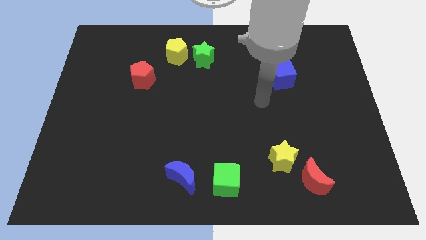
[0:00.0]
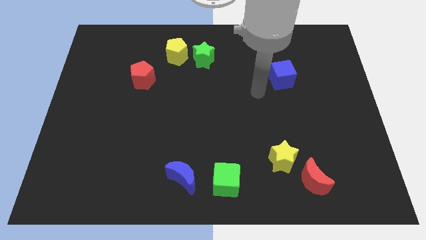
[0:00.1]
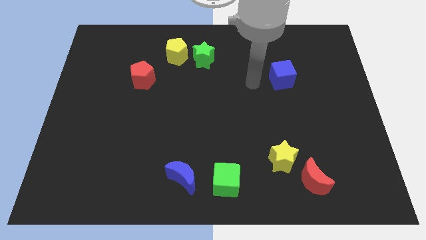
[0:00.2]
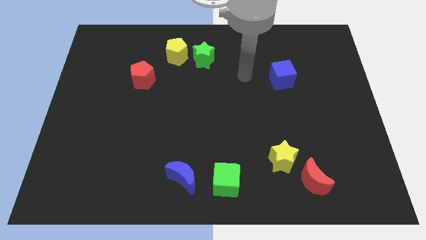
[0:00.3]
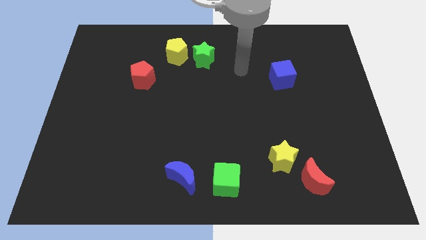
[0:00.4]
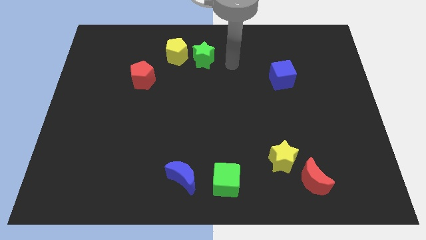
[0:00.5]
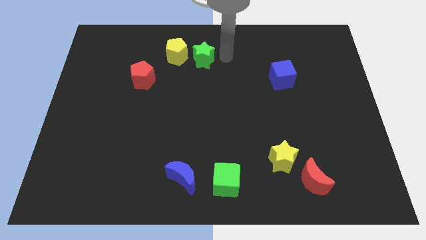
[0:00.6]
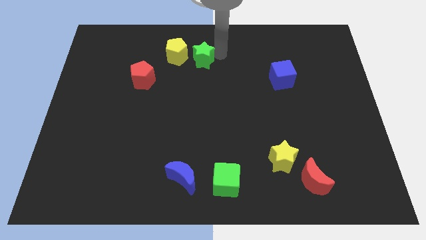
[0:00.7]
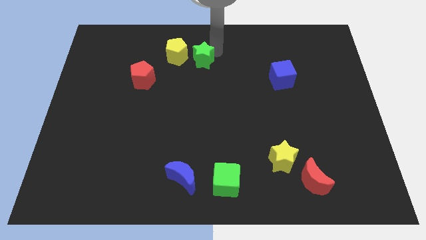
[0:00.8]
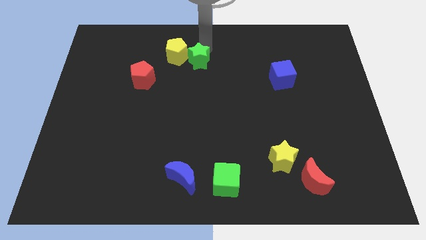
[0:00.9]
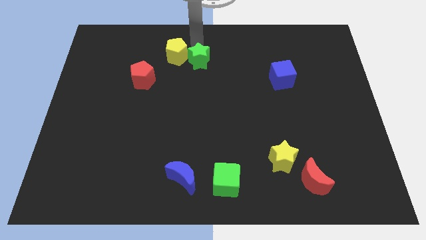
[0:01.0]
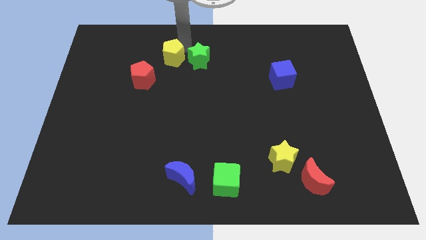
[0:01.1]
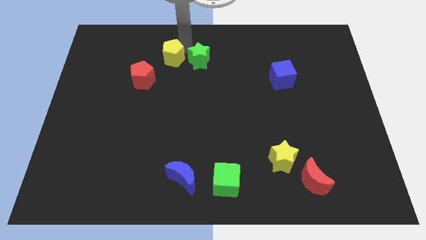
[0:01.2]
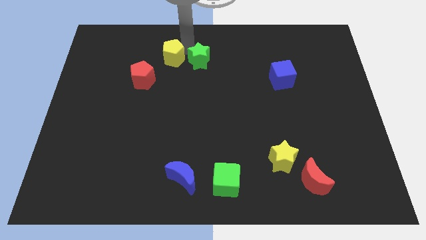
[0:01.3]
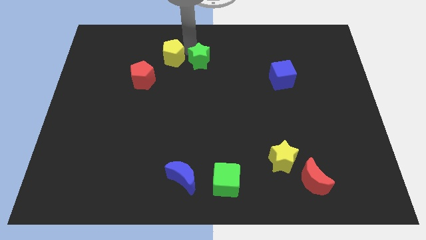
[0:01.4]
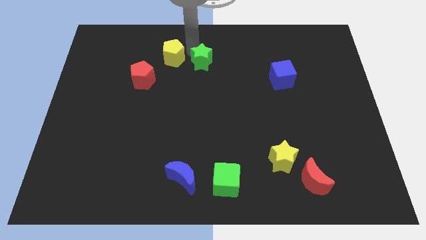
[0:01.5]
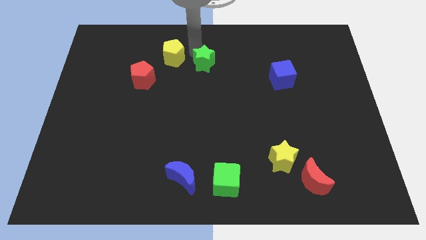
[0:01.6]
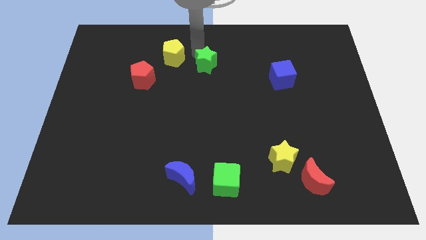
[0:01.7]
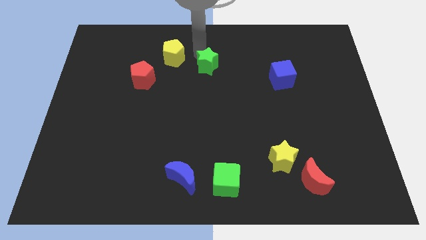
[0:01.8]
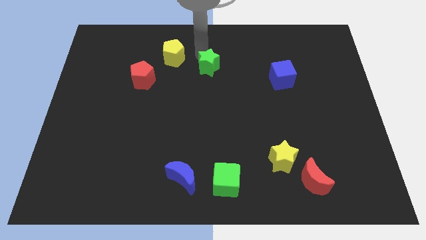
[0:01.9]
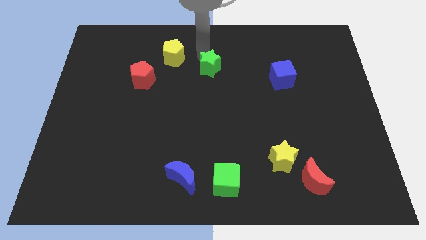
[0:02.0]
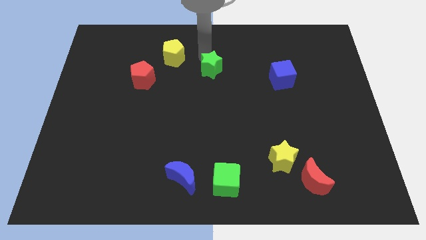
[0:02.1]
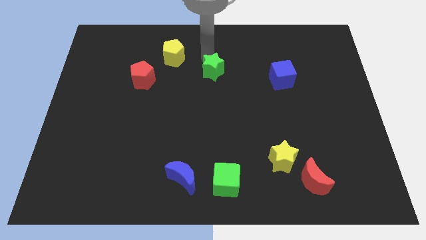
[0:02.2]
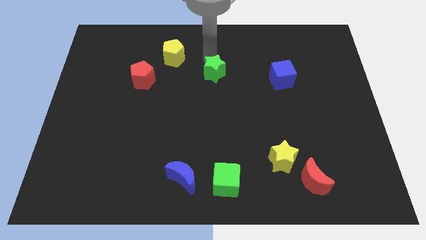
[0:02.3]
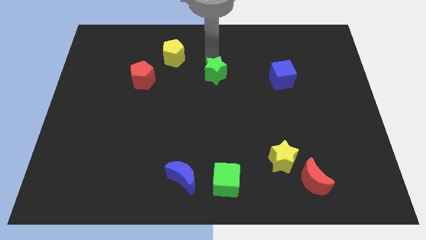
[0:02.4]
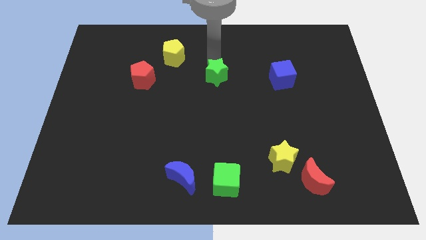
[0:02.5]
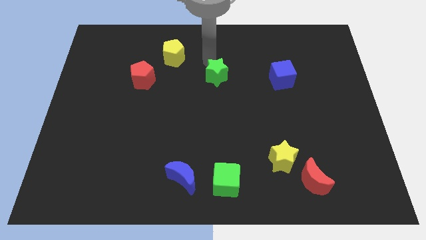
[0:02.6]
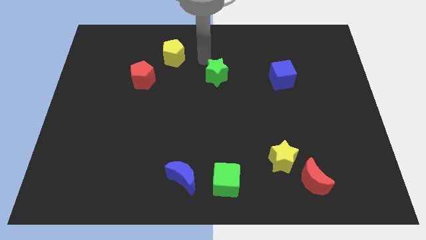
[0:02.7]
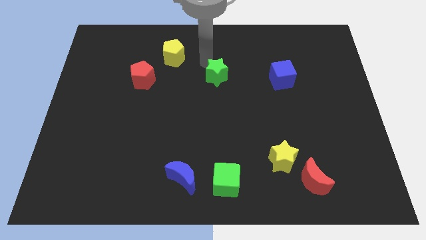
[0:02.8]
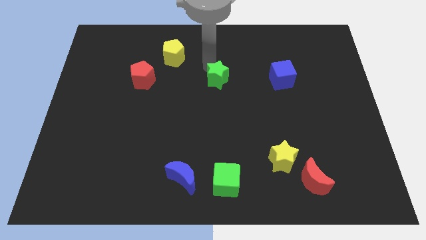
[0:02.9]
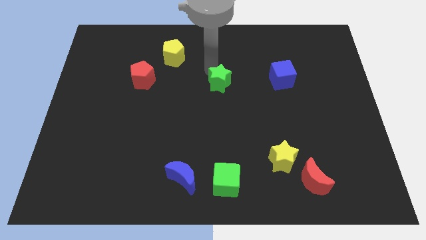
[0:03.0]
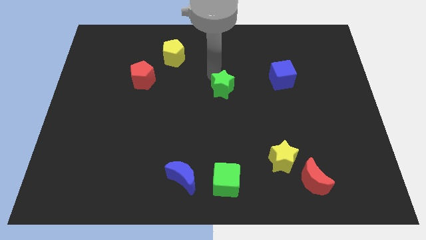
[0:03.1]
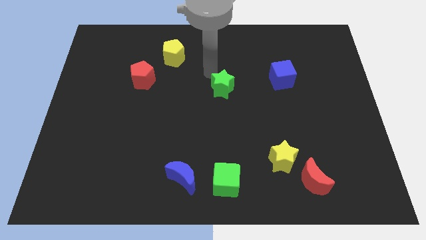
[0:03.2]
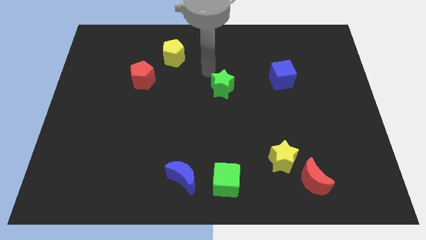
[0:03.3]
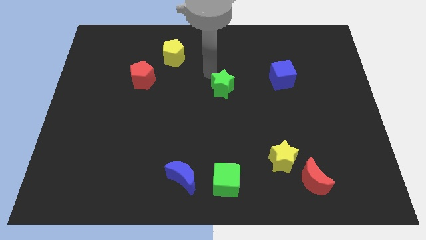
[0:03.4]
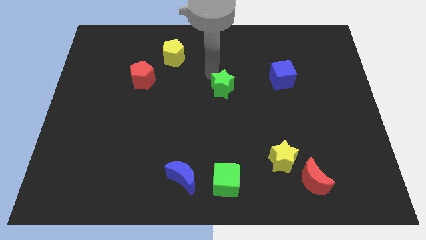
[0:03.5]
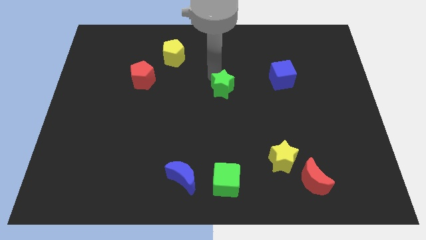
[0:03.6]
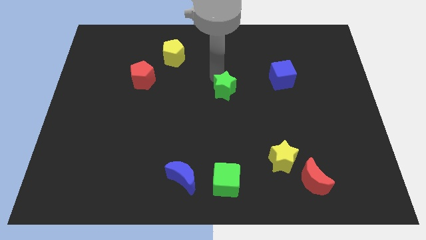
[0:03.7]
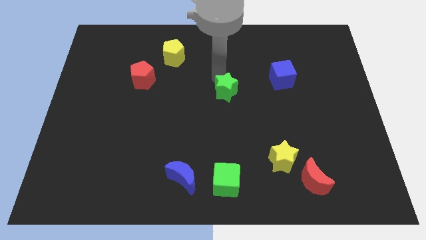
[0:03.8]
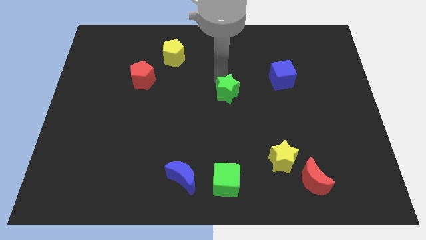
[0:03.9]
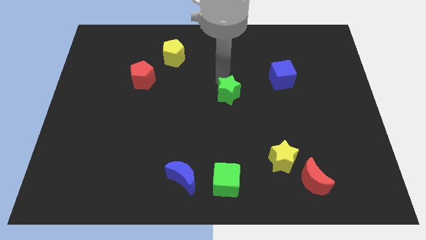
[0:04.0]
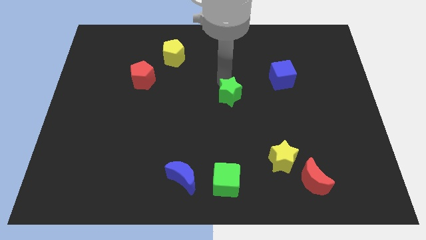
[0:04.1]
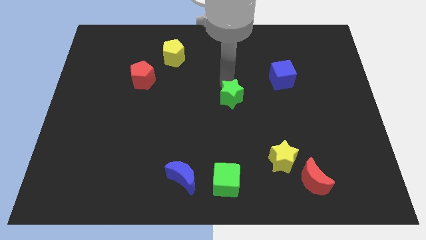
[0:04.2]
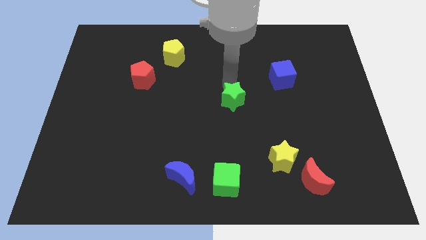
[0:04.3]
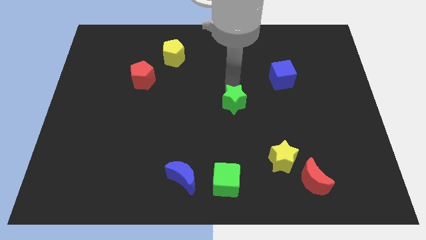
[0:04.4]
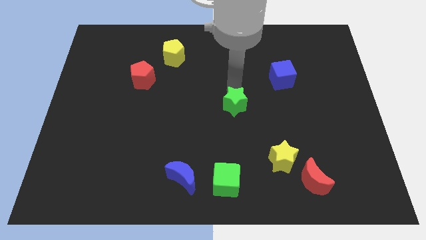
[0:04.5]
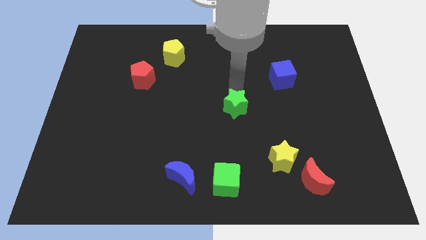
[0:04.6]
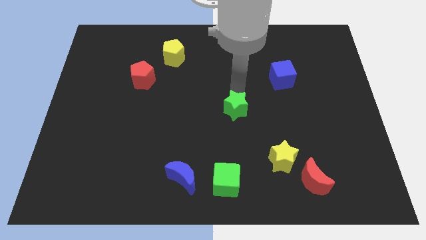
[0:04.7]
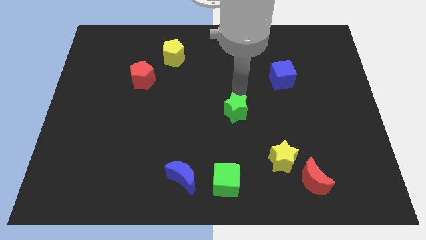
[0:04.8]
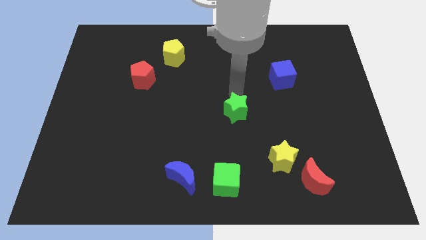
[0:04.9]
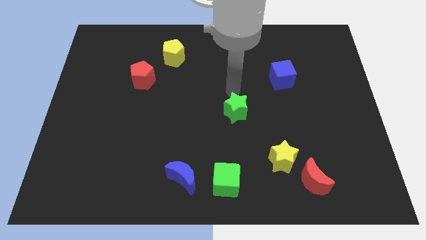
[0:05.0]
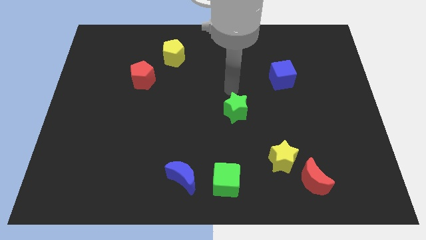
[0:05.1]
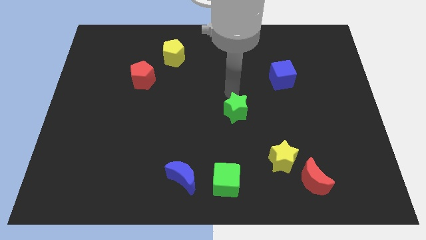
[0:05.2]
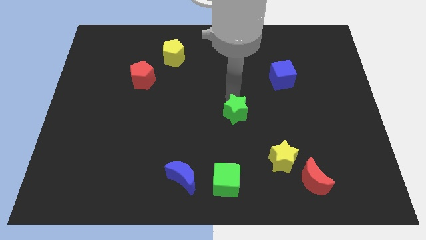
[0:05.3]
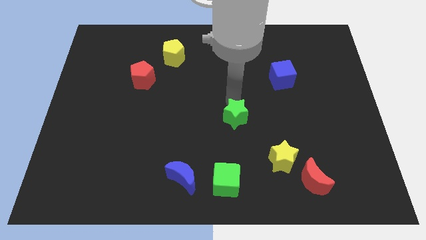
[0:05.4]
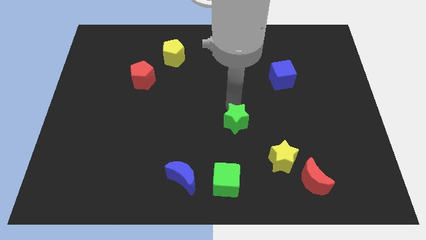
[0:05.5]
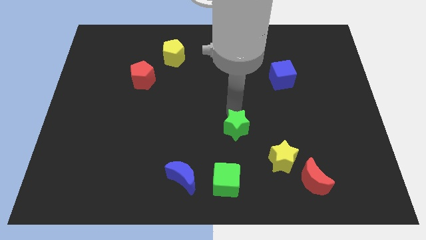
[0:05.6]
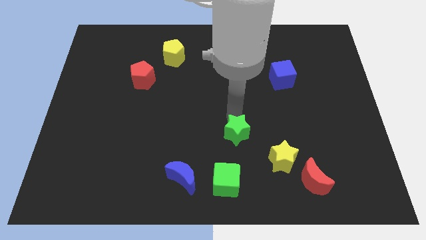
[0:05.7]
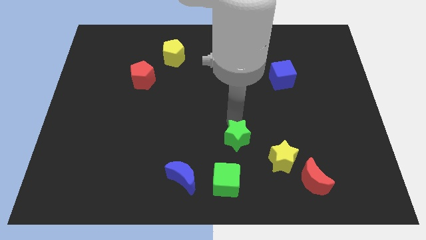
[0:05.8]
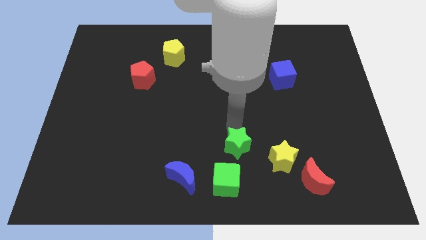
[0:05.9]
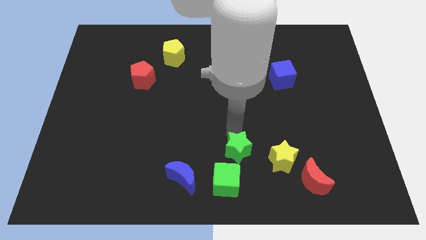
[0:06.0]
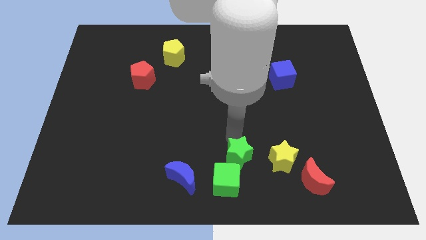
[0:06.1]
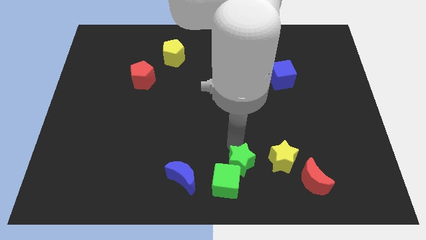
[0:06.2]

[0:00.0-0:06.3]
push the green star to the bottom

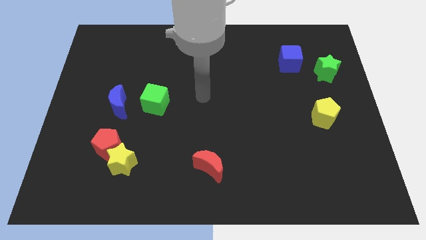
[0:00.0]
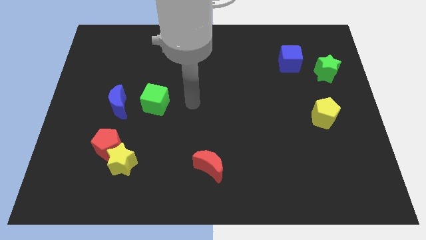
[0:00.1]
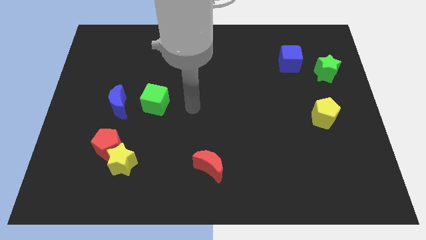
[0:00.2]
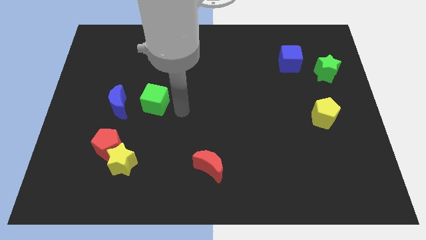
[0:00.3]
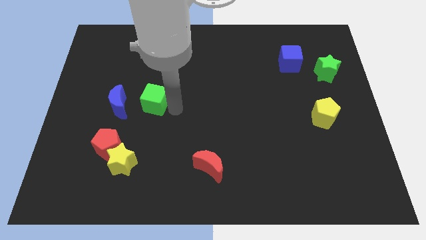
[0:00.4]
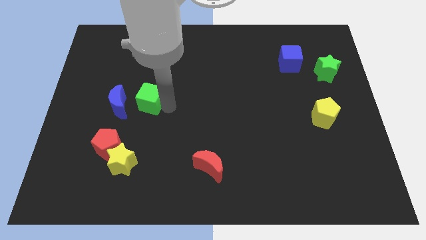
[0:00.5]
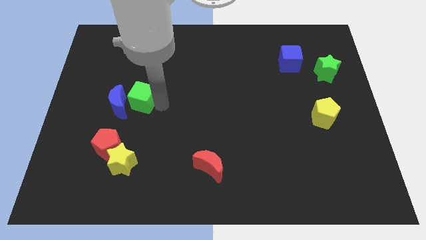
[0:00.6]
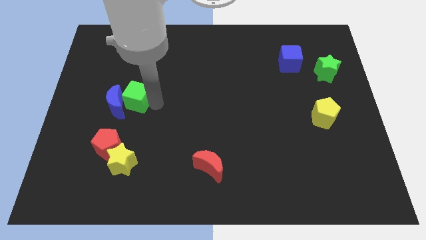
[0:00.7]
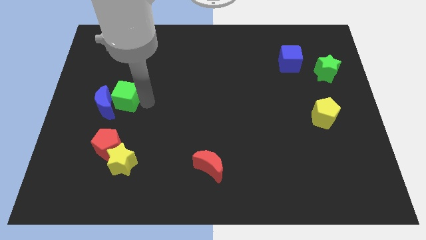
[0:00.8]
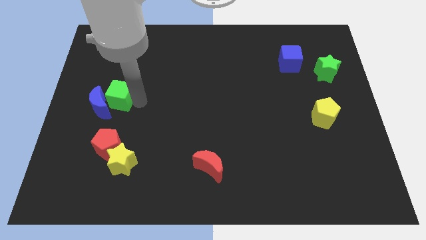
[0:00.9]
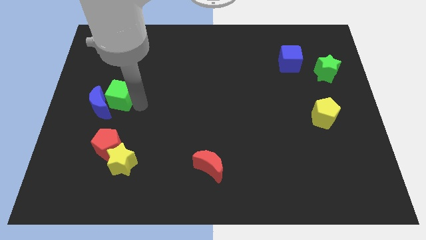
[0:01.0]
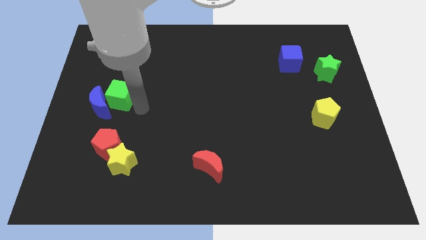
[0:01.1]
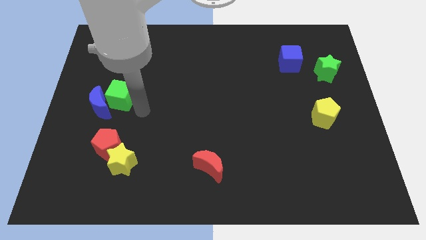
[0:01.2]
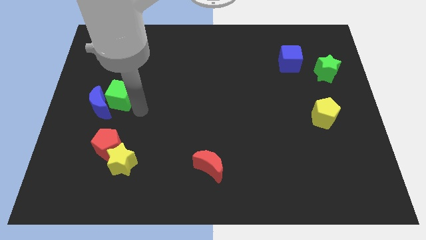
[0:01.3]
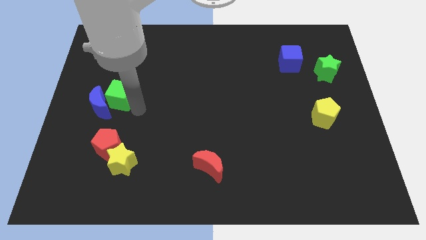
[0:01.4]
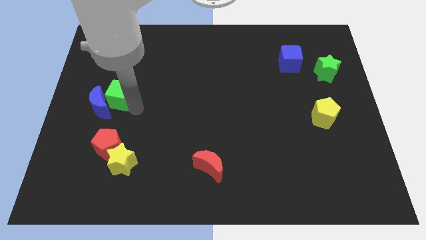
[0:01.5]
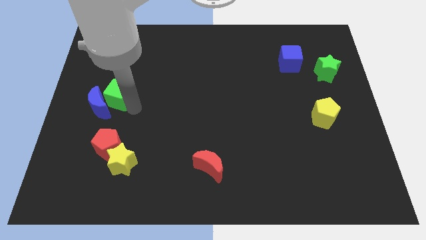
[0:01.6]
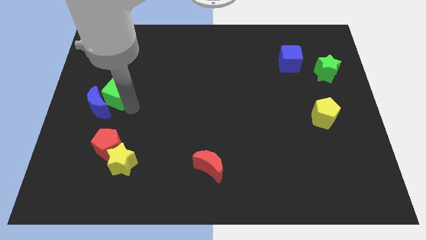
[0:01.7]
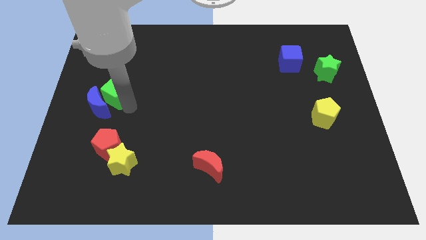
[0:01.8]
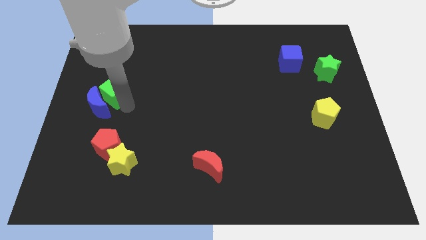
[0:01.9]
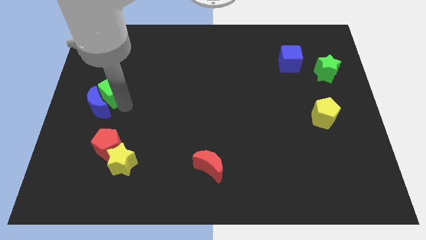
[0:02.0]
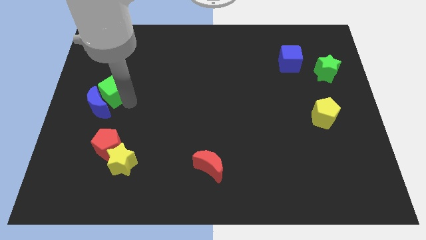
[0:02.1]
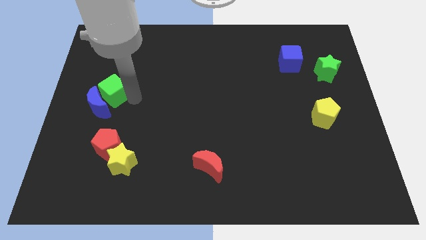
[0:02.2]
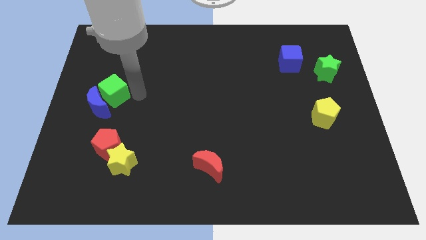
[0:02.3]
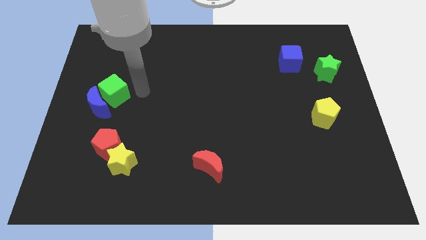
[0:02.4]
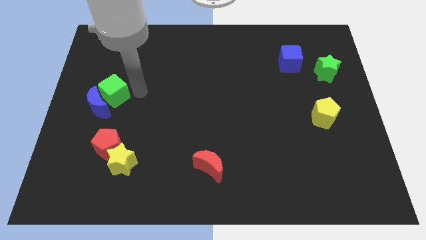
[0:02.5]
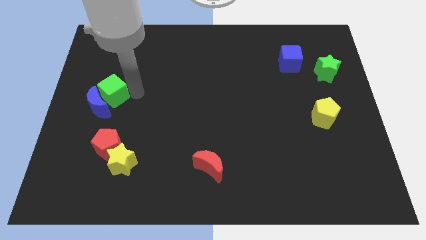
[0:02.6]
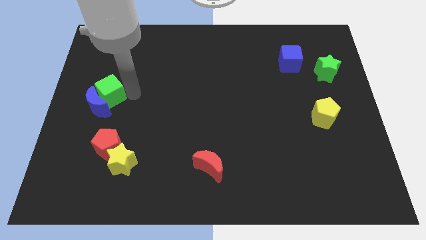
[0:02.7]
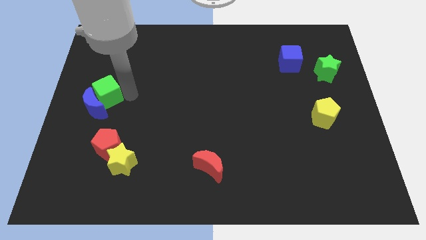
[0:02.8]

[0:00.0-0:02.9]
move the green cube to the left side
